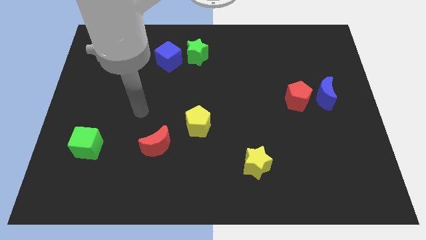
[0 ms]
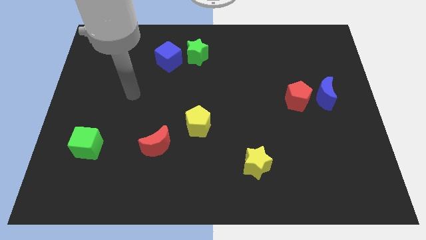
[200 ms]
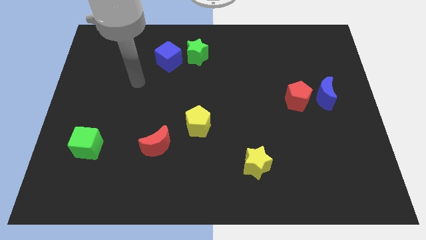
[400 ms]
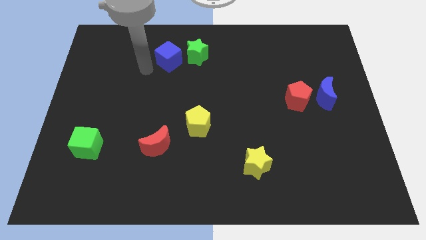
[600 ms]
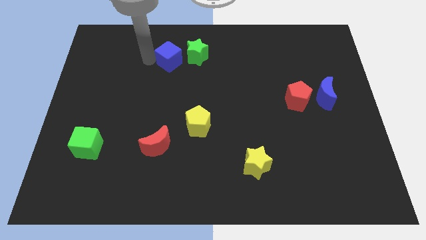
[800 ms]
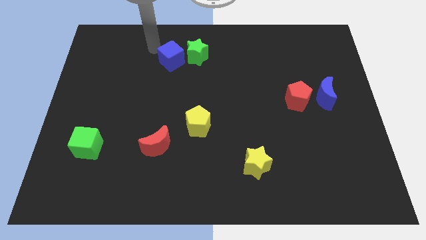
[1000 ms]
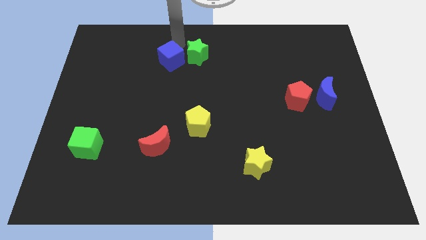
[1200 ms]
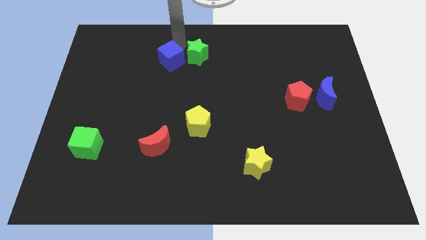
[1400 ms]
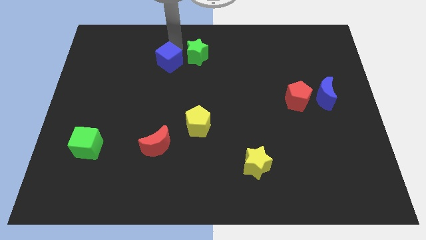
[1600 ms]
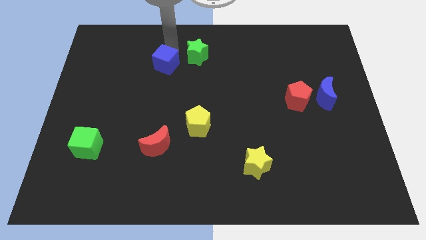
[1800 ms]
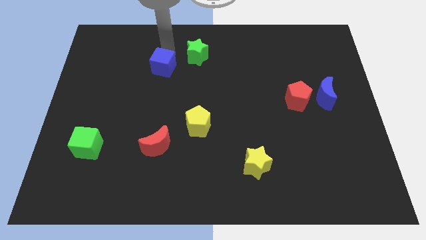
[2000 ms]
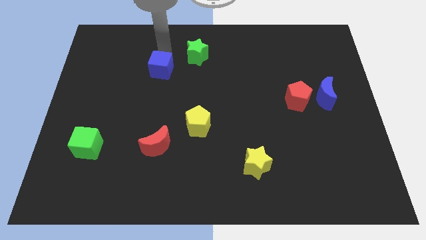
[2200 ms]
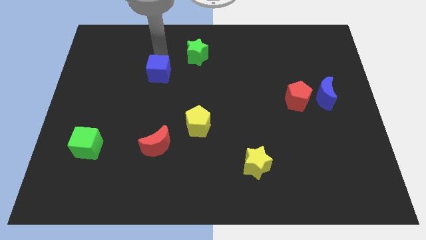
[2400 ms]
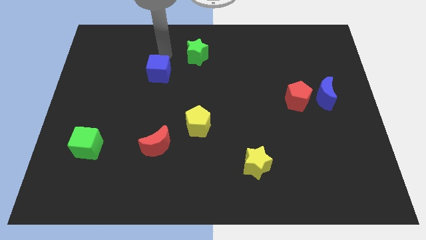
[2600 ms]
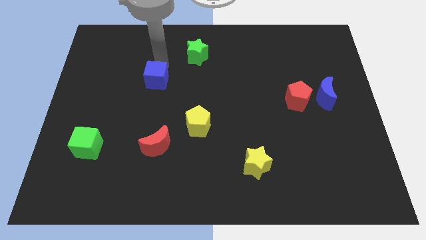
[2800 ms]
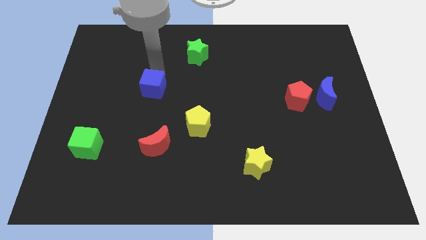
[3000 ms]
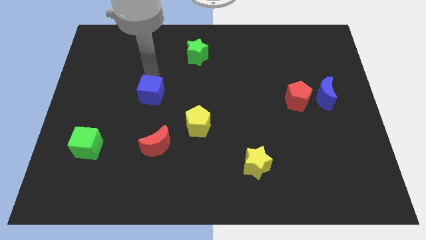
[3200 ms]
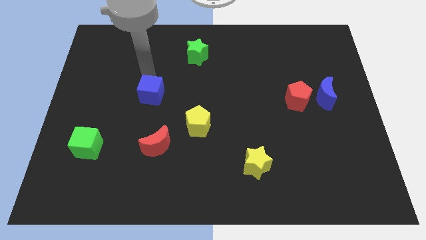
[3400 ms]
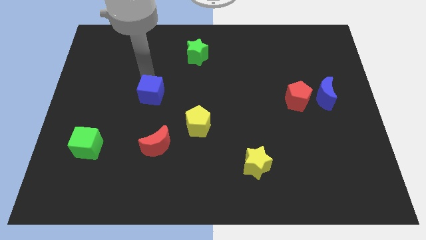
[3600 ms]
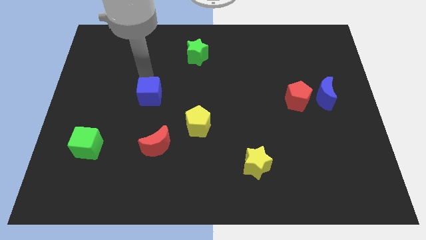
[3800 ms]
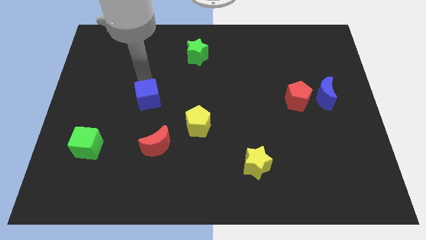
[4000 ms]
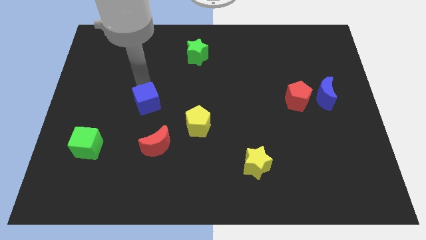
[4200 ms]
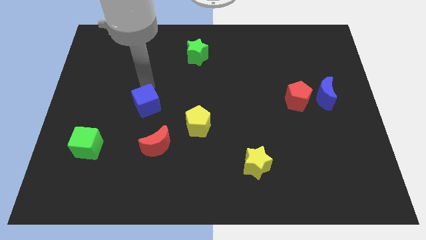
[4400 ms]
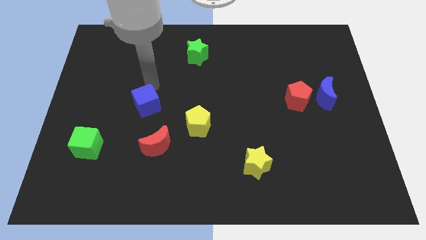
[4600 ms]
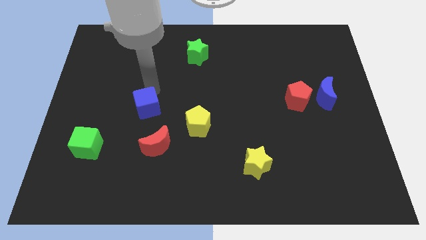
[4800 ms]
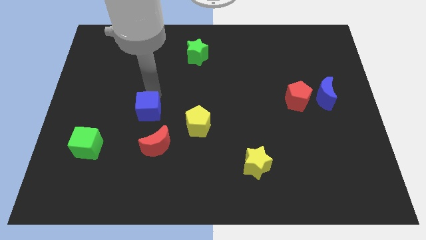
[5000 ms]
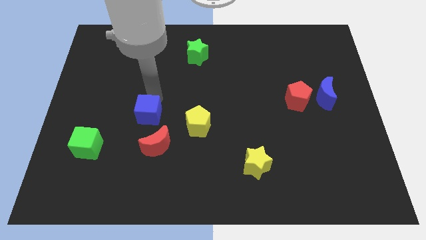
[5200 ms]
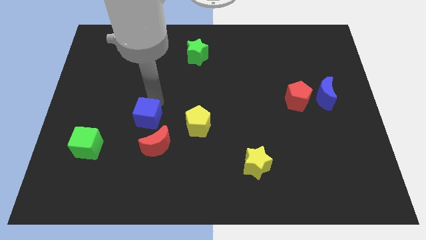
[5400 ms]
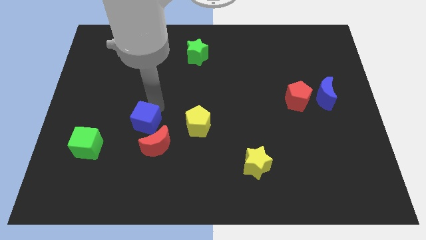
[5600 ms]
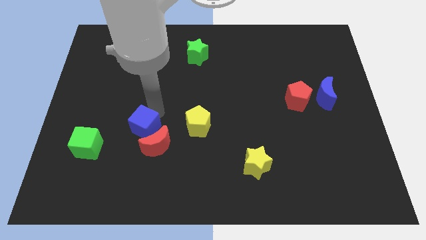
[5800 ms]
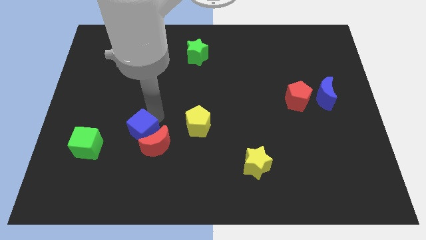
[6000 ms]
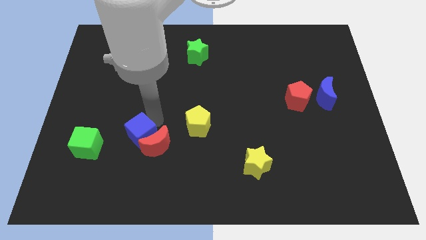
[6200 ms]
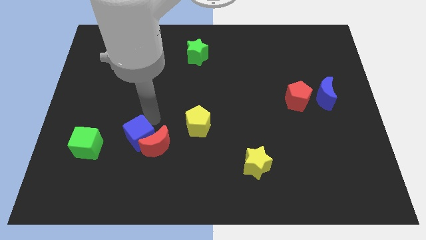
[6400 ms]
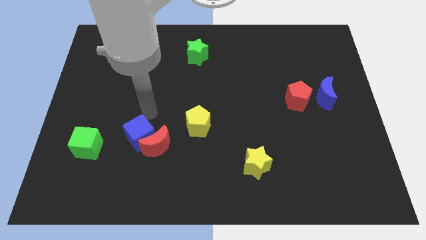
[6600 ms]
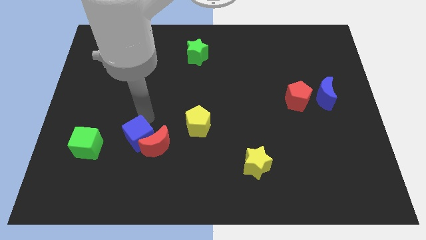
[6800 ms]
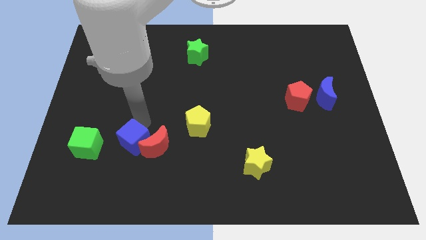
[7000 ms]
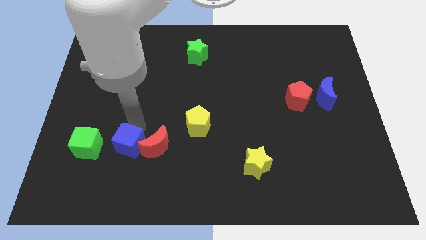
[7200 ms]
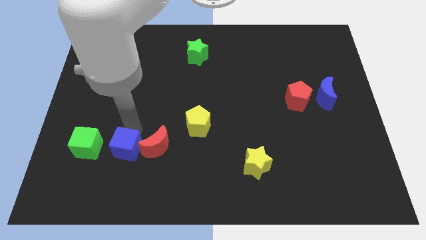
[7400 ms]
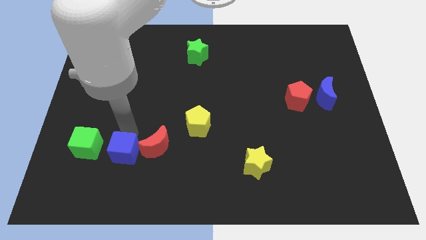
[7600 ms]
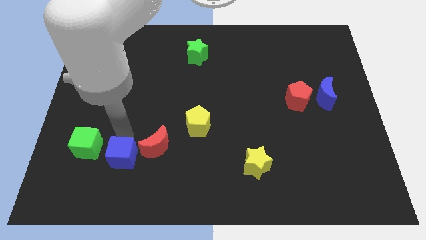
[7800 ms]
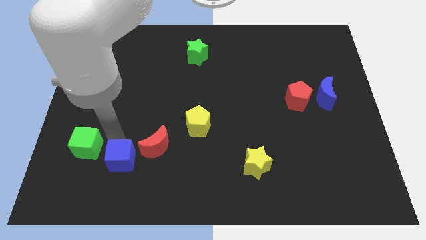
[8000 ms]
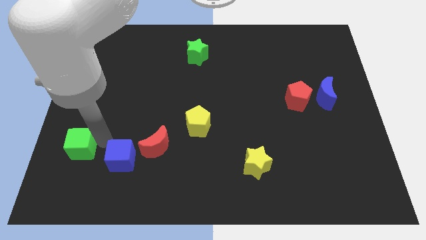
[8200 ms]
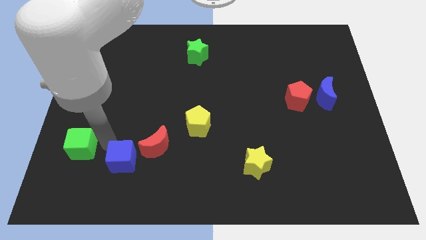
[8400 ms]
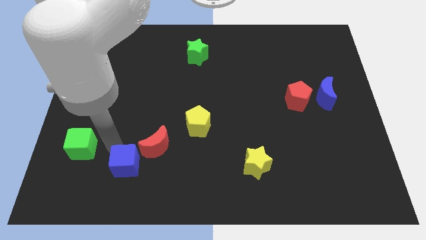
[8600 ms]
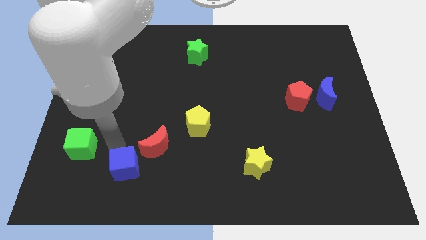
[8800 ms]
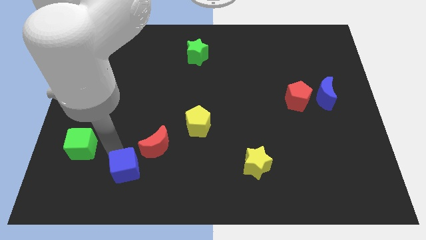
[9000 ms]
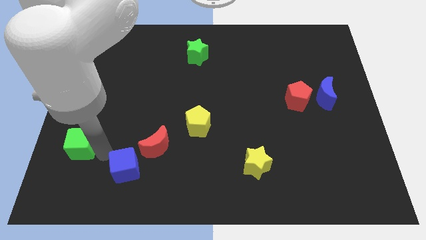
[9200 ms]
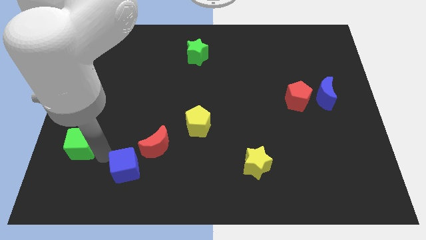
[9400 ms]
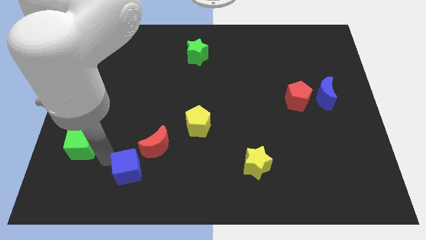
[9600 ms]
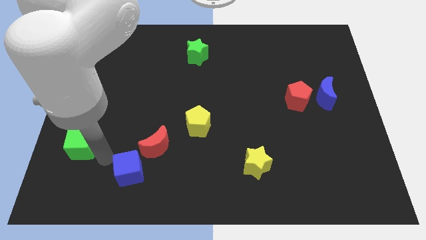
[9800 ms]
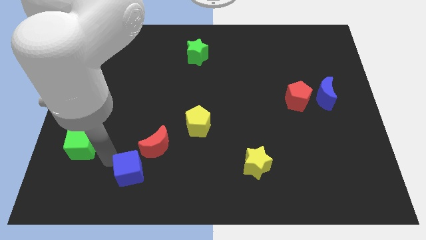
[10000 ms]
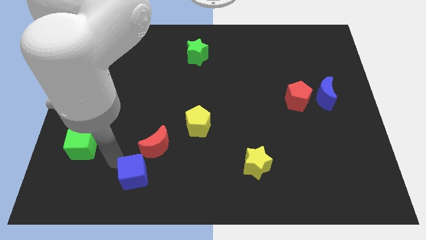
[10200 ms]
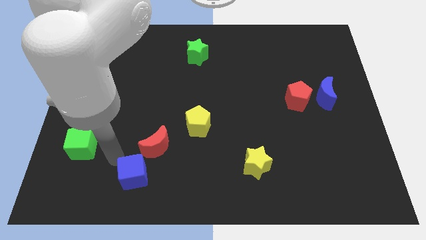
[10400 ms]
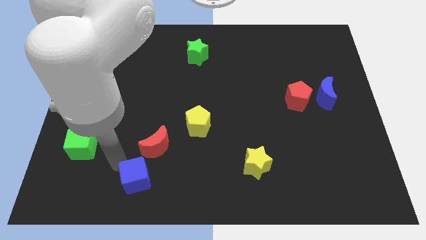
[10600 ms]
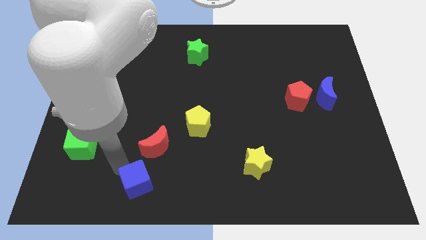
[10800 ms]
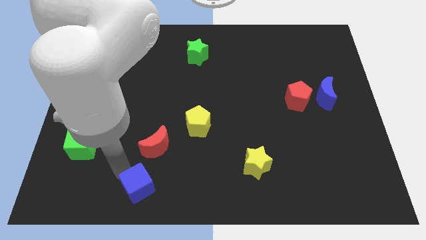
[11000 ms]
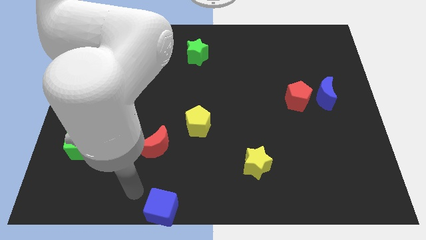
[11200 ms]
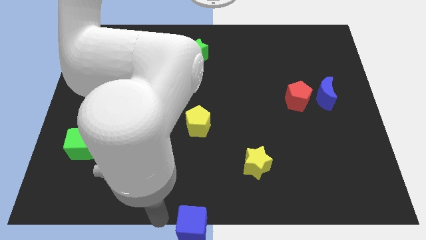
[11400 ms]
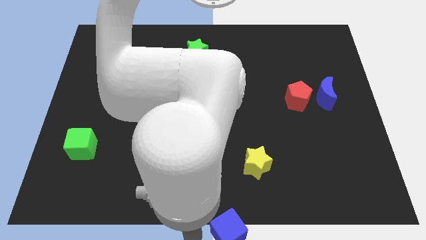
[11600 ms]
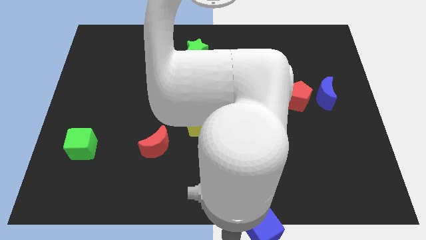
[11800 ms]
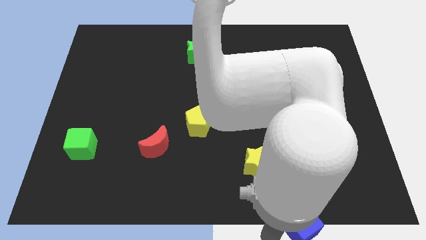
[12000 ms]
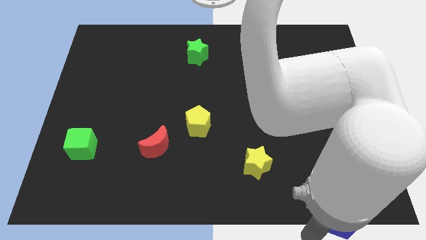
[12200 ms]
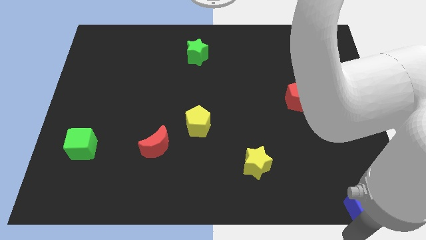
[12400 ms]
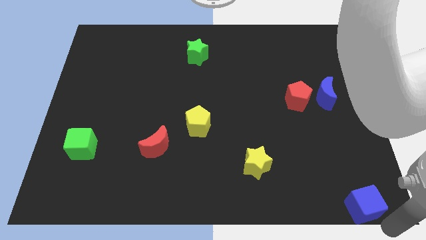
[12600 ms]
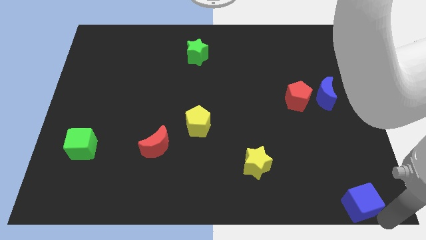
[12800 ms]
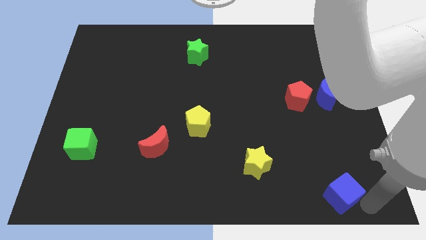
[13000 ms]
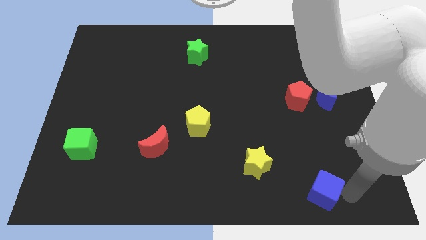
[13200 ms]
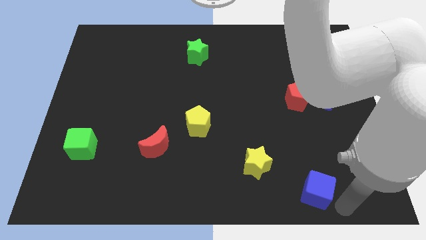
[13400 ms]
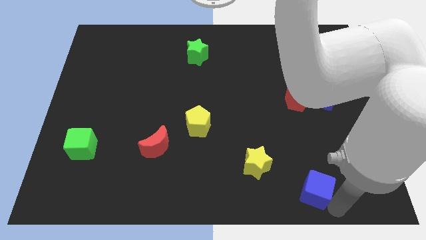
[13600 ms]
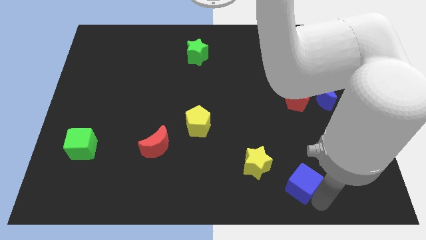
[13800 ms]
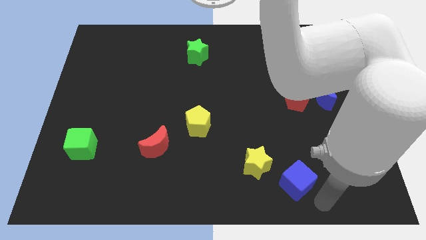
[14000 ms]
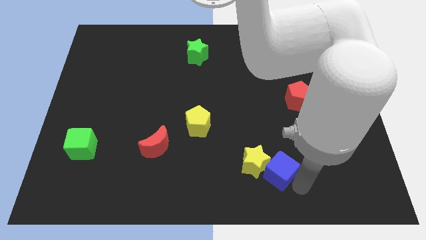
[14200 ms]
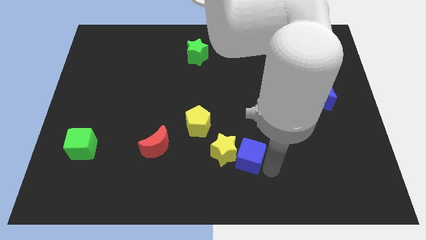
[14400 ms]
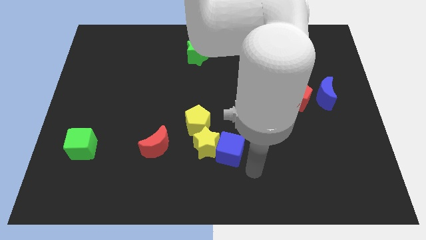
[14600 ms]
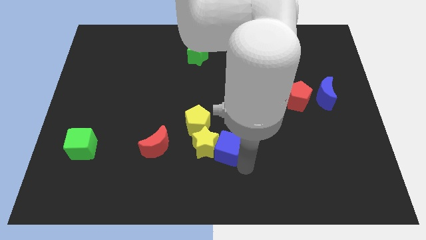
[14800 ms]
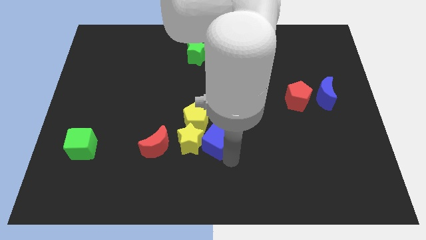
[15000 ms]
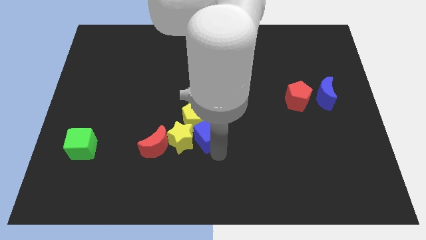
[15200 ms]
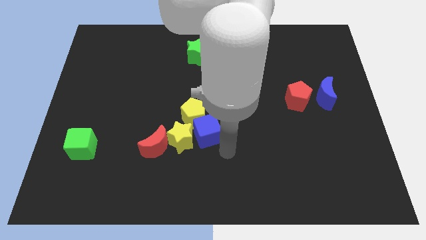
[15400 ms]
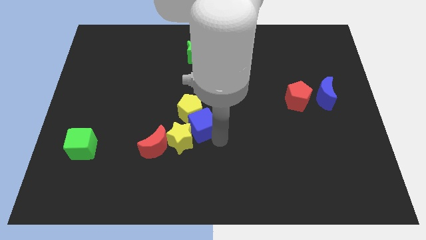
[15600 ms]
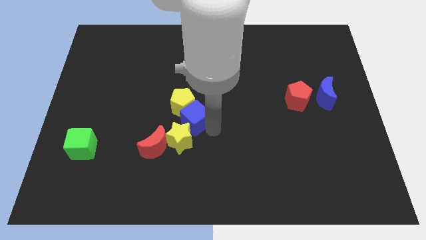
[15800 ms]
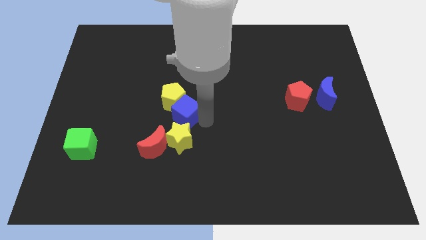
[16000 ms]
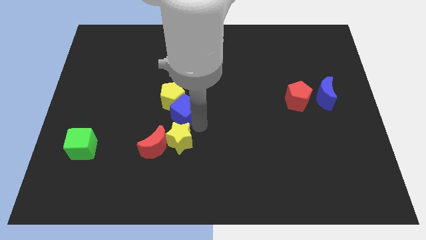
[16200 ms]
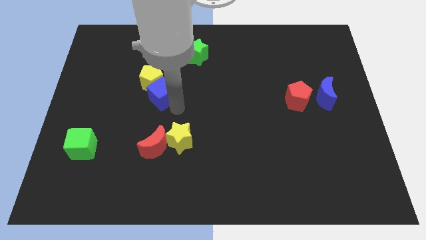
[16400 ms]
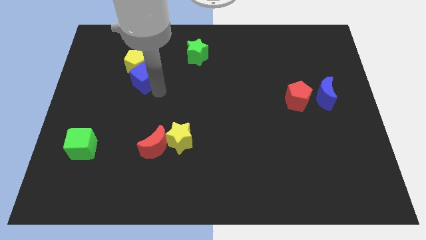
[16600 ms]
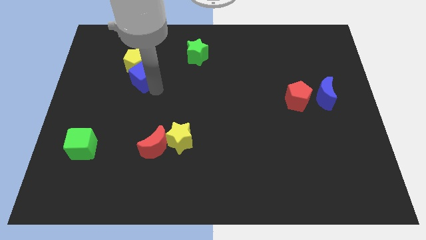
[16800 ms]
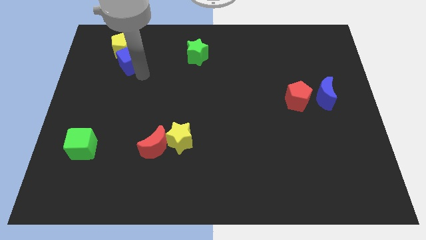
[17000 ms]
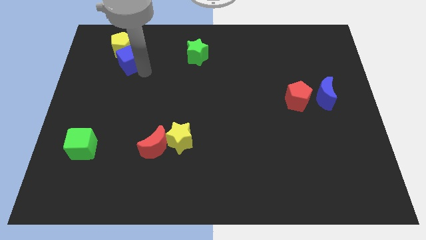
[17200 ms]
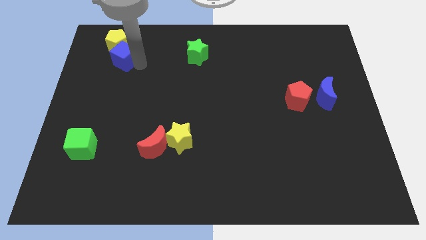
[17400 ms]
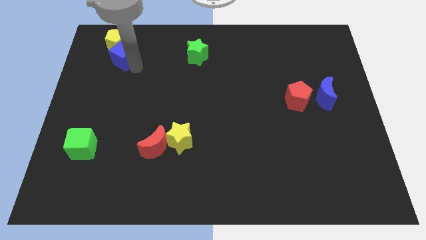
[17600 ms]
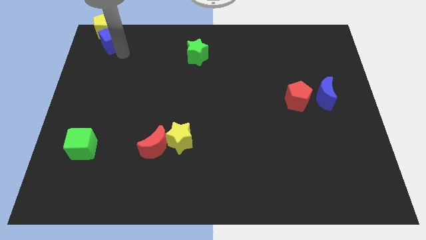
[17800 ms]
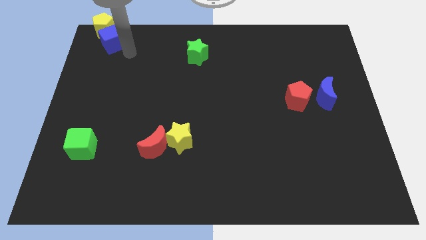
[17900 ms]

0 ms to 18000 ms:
push the blue cube to the upper left corner
